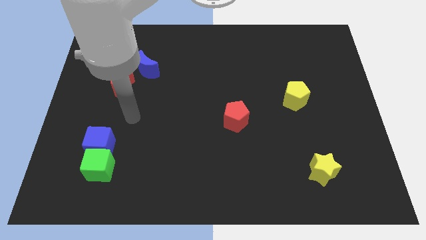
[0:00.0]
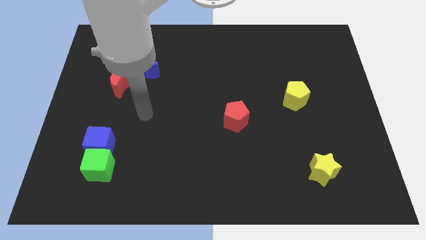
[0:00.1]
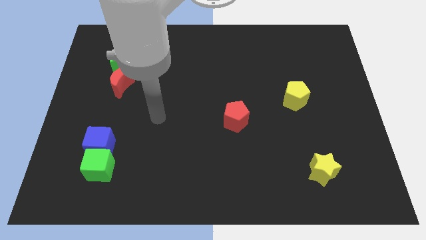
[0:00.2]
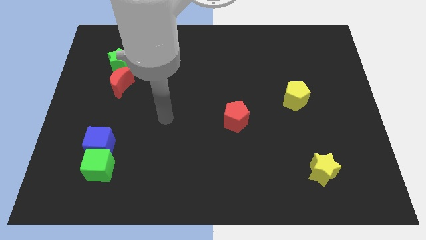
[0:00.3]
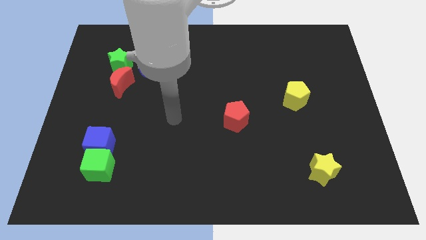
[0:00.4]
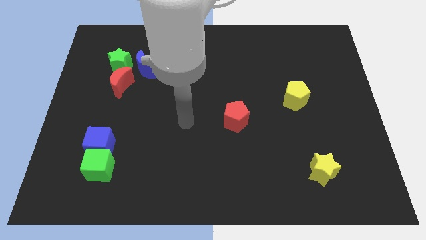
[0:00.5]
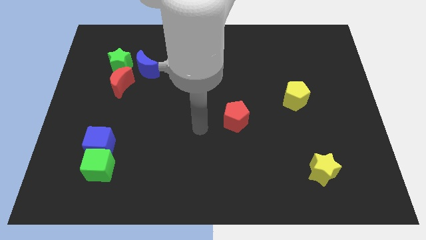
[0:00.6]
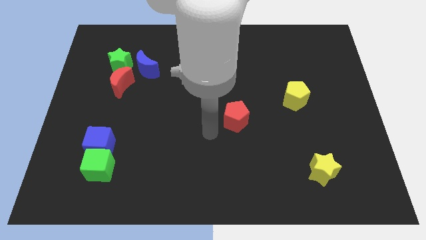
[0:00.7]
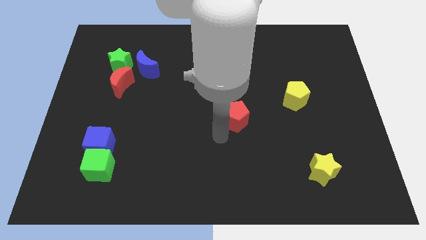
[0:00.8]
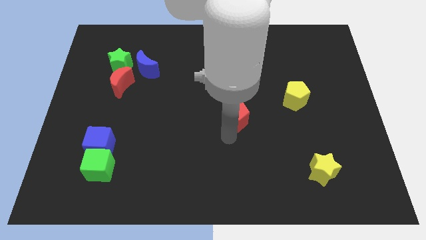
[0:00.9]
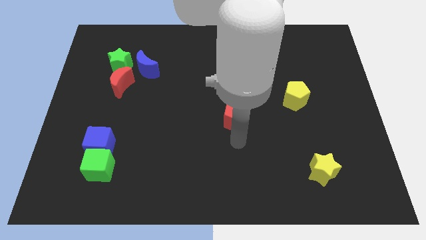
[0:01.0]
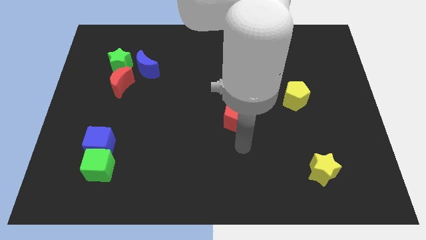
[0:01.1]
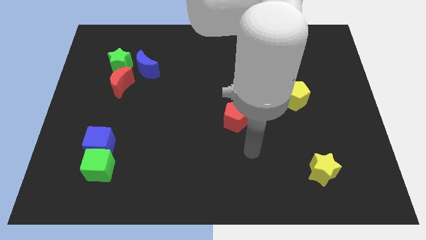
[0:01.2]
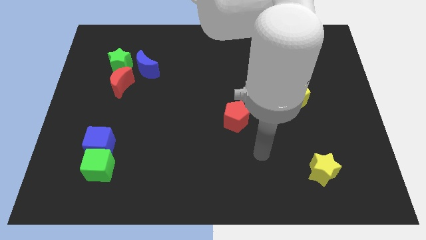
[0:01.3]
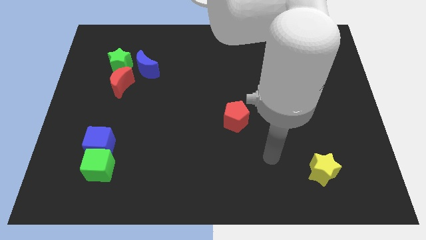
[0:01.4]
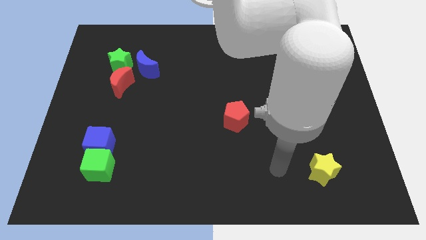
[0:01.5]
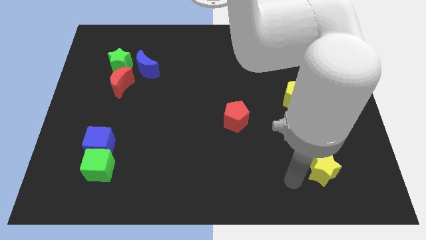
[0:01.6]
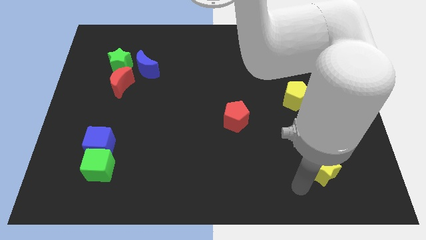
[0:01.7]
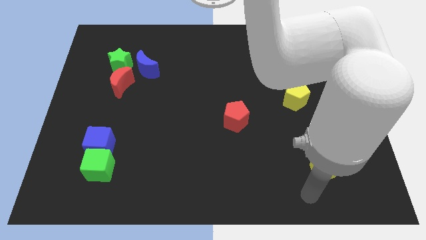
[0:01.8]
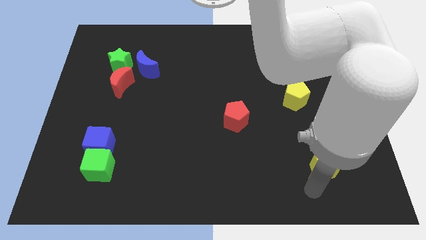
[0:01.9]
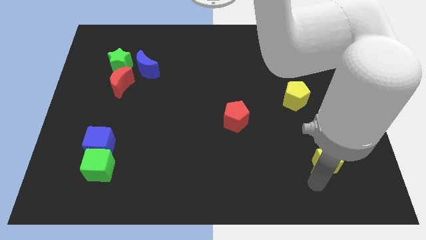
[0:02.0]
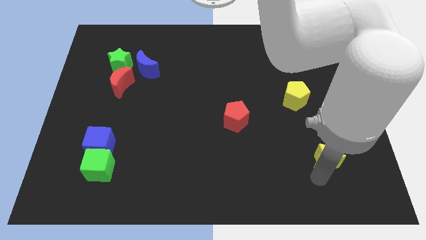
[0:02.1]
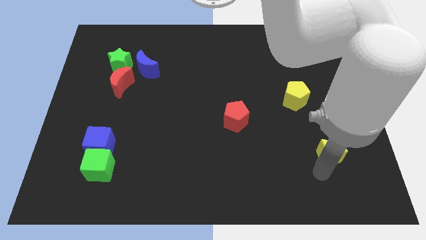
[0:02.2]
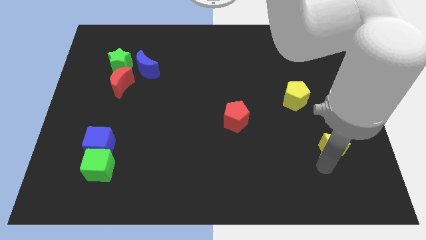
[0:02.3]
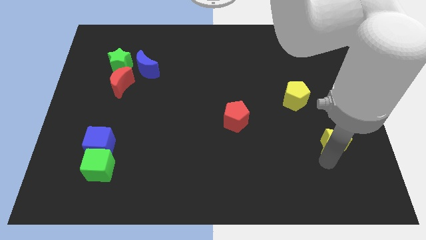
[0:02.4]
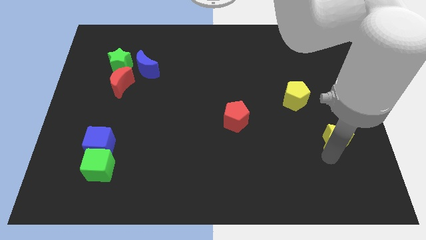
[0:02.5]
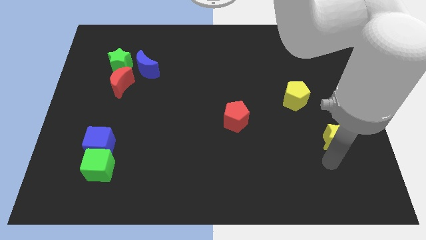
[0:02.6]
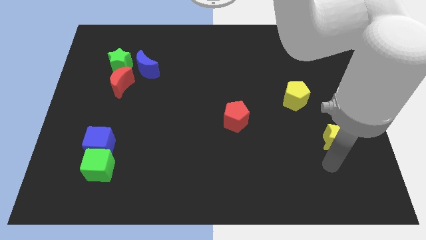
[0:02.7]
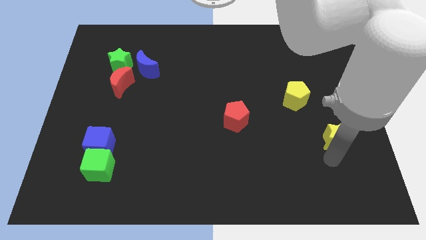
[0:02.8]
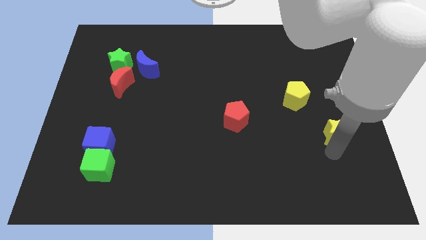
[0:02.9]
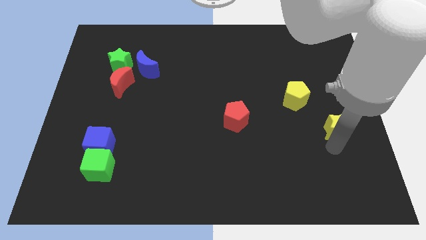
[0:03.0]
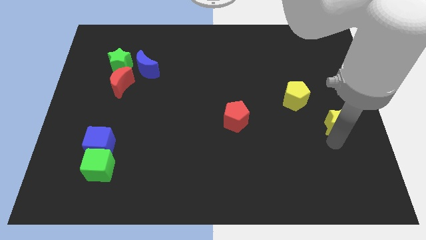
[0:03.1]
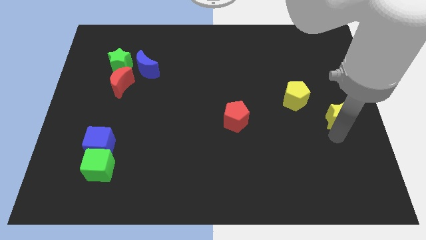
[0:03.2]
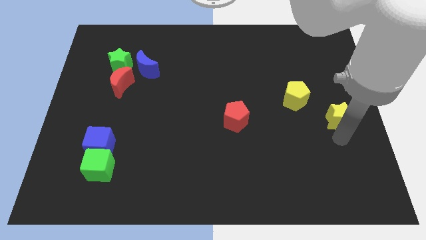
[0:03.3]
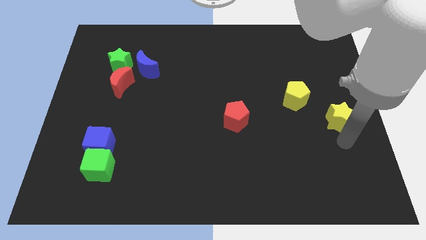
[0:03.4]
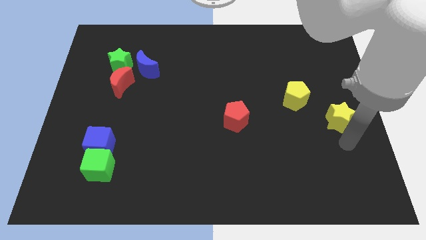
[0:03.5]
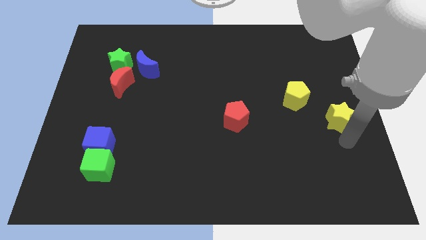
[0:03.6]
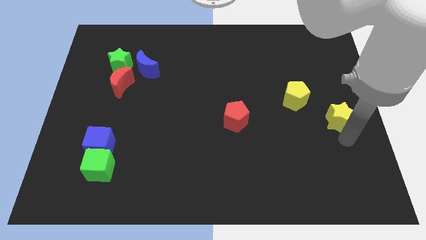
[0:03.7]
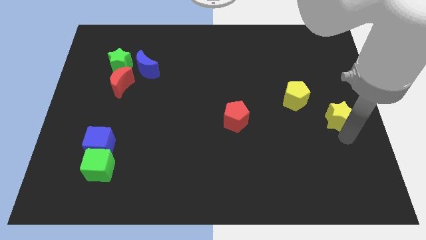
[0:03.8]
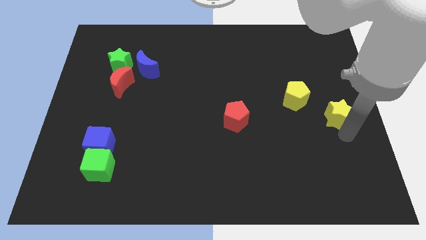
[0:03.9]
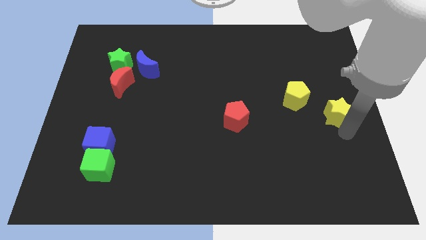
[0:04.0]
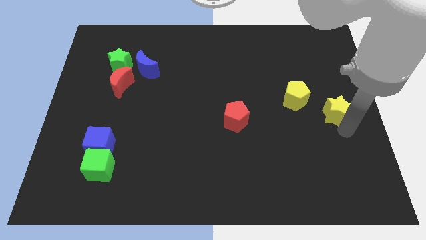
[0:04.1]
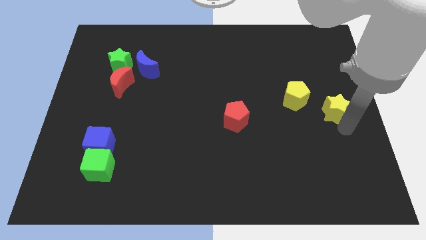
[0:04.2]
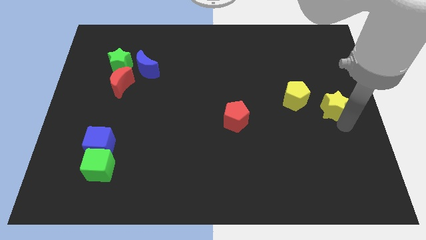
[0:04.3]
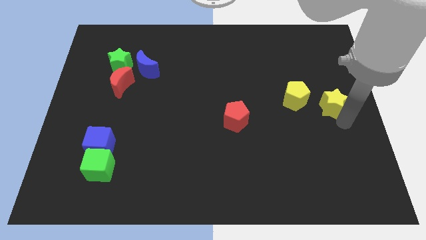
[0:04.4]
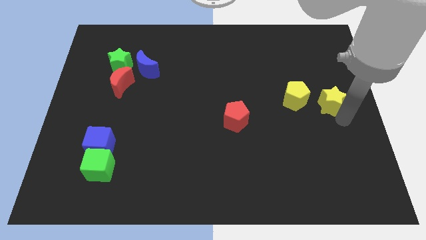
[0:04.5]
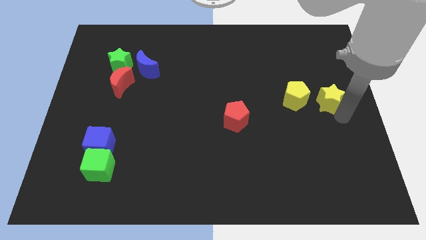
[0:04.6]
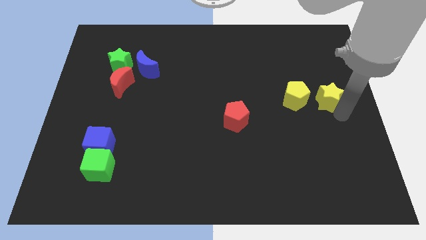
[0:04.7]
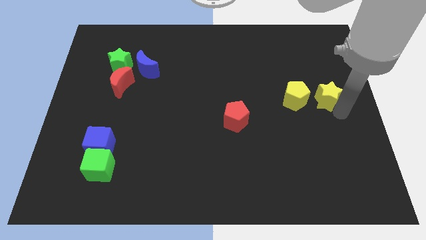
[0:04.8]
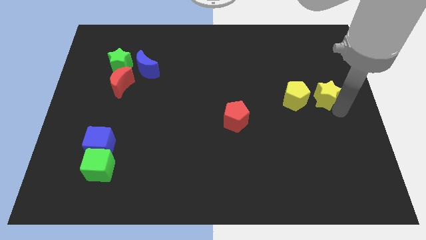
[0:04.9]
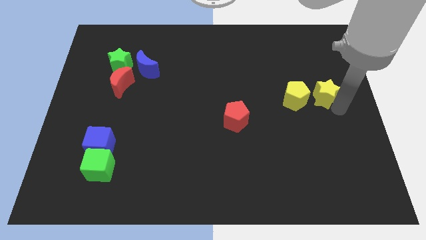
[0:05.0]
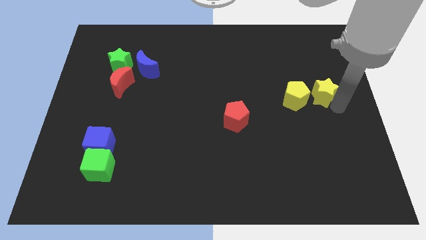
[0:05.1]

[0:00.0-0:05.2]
push the yellow star up

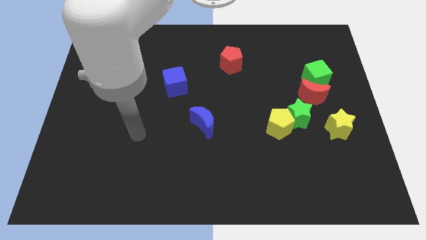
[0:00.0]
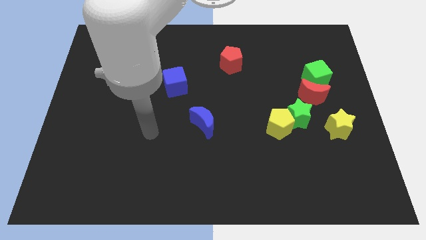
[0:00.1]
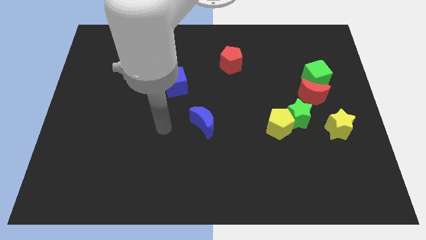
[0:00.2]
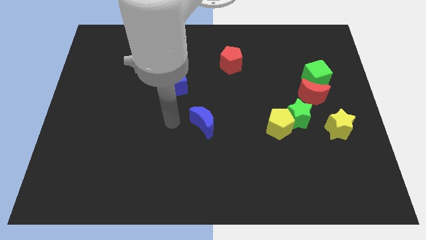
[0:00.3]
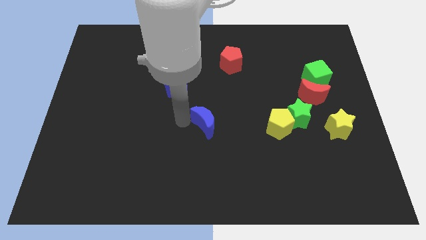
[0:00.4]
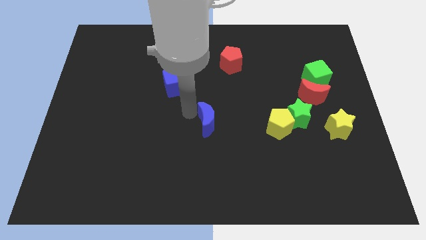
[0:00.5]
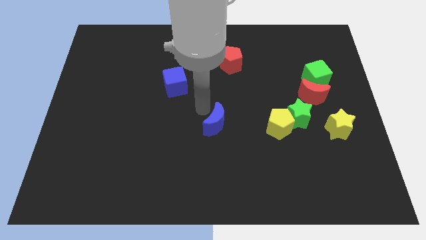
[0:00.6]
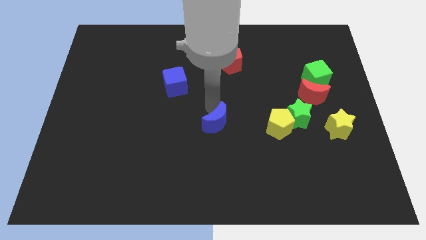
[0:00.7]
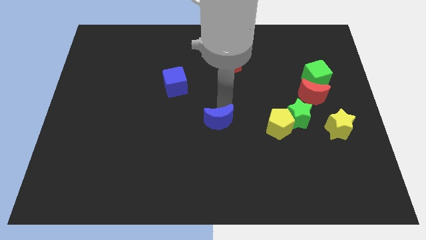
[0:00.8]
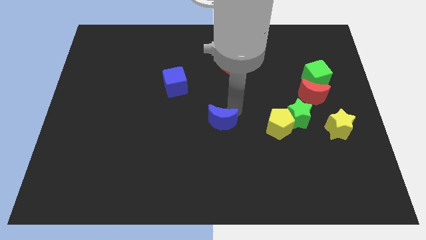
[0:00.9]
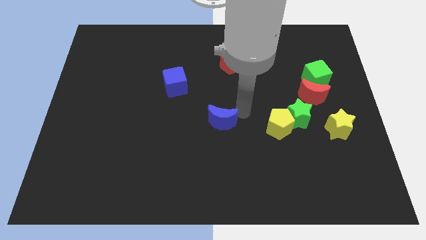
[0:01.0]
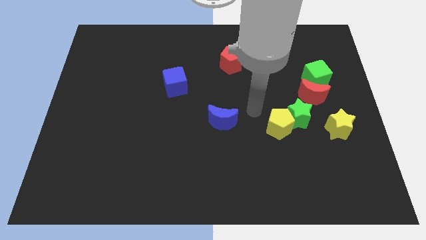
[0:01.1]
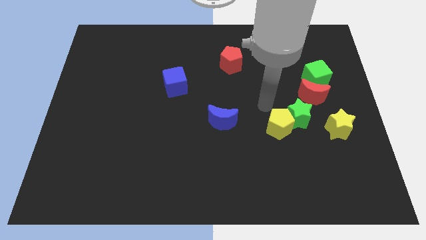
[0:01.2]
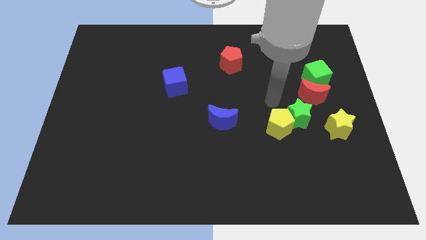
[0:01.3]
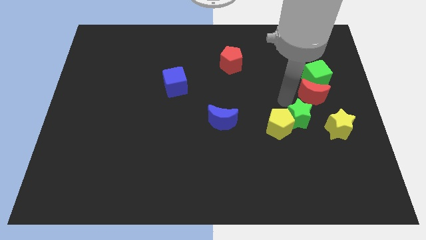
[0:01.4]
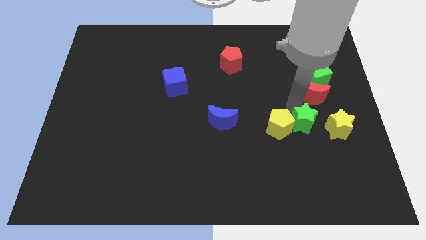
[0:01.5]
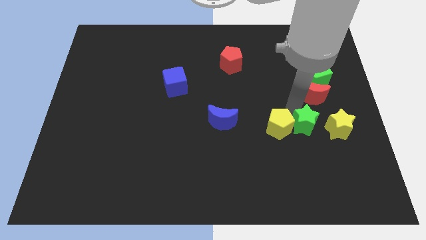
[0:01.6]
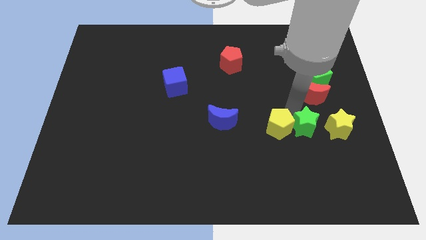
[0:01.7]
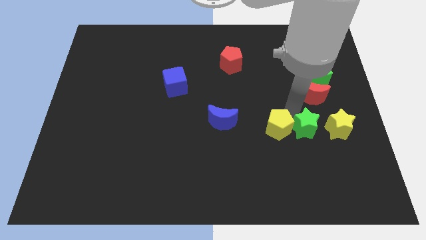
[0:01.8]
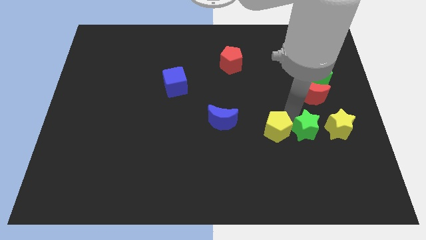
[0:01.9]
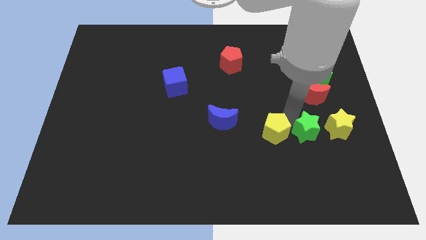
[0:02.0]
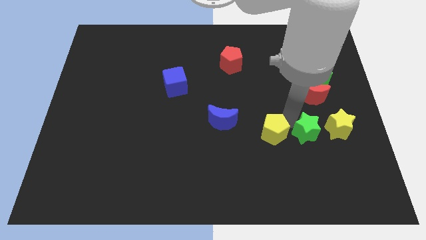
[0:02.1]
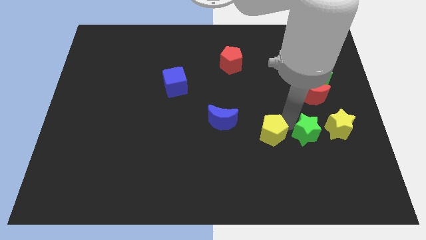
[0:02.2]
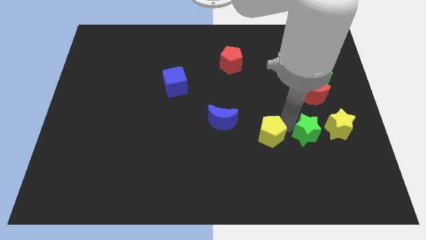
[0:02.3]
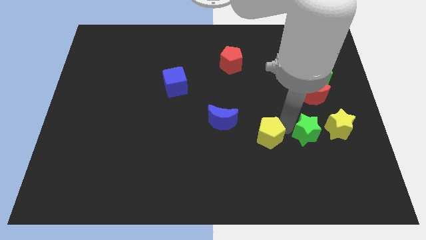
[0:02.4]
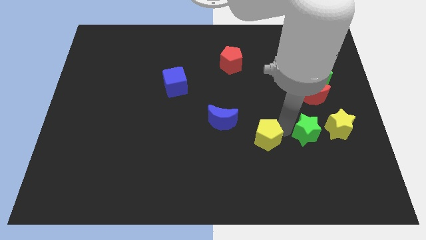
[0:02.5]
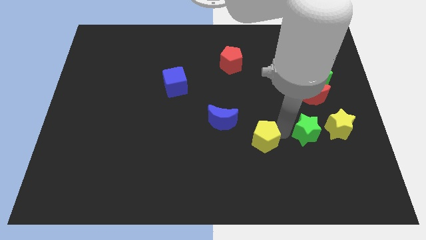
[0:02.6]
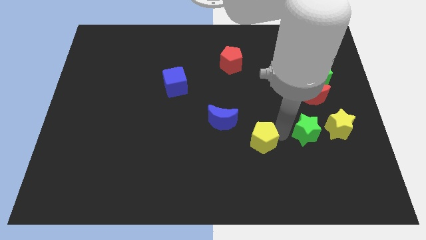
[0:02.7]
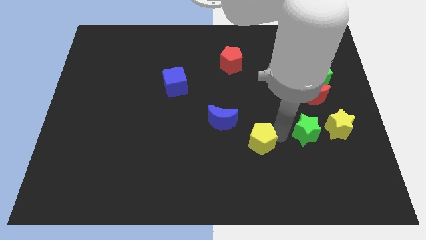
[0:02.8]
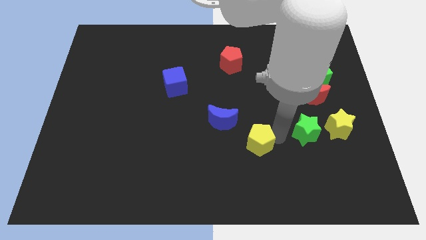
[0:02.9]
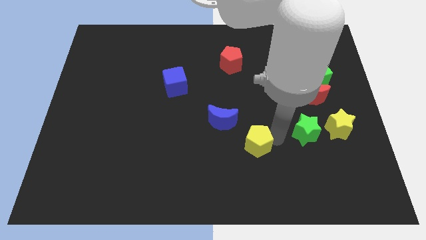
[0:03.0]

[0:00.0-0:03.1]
slide the yellow pentagon a little down and to the left
